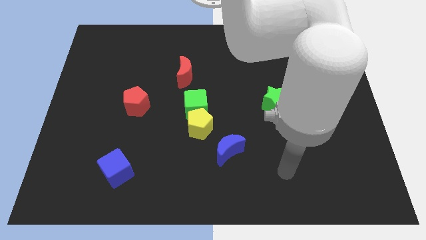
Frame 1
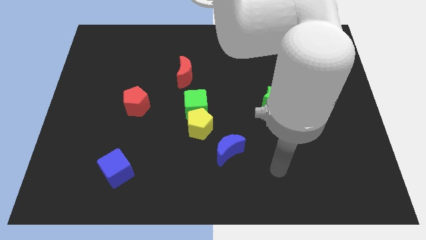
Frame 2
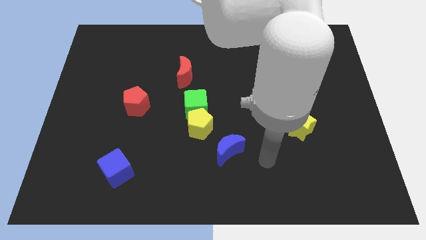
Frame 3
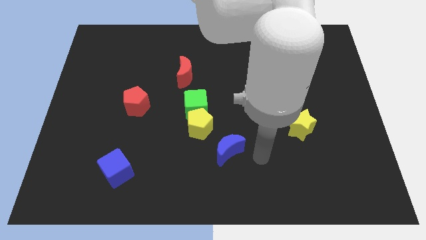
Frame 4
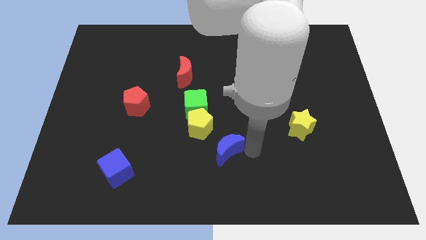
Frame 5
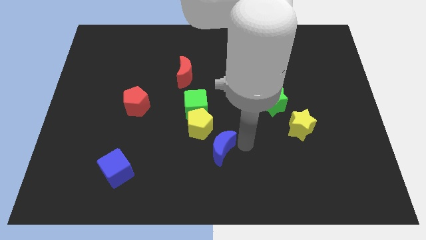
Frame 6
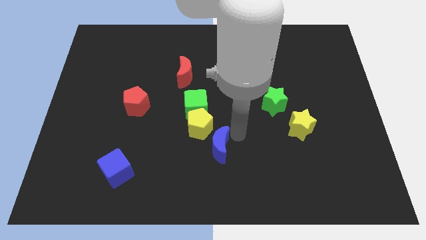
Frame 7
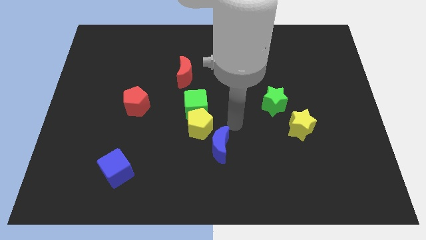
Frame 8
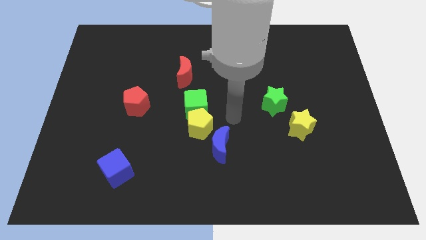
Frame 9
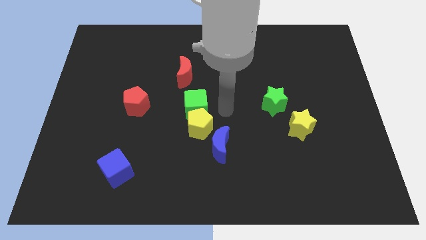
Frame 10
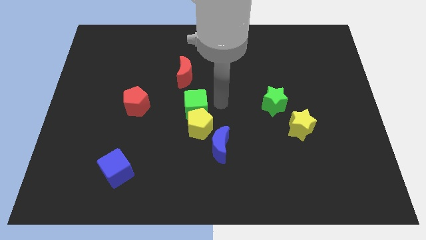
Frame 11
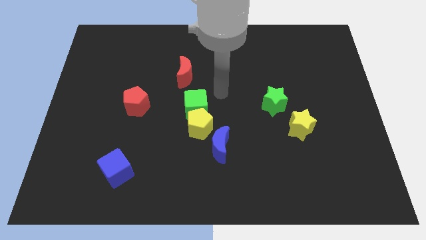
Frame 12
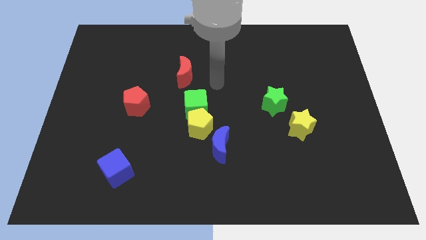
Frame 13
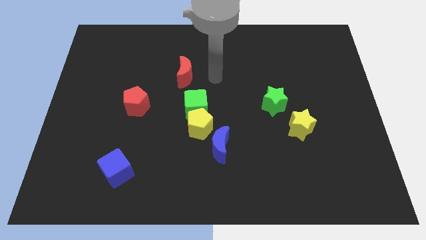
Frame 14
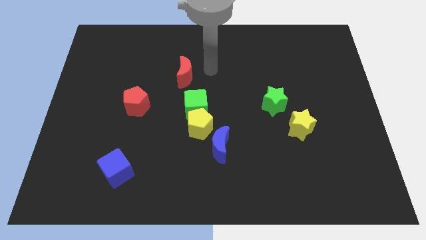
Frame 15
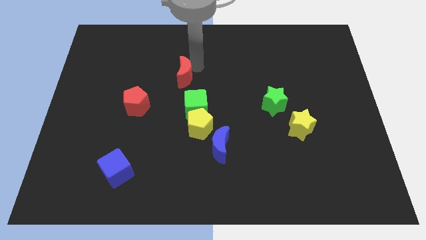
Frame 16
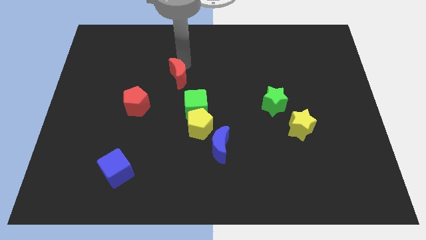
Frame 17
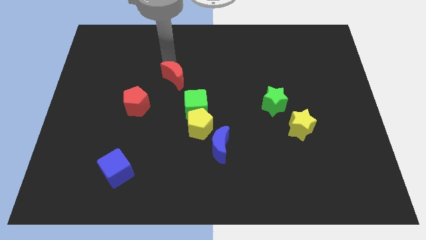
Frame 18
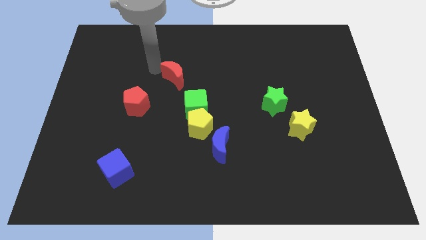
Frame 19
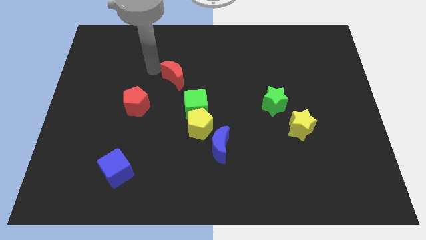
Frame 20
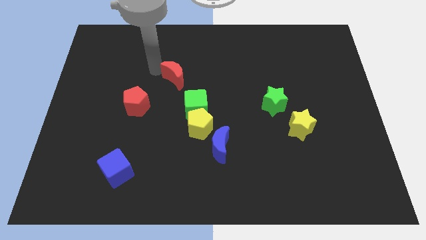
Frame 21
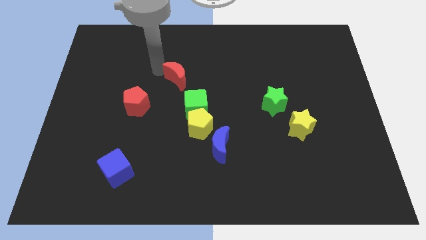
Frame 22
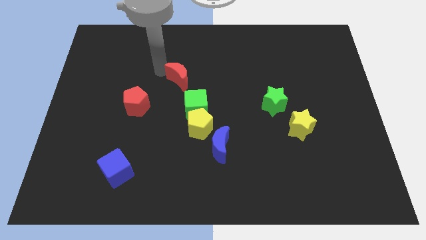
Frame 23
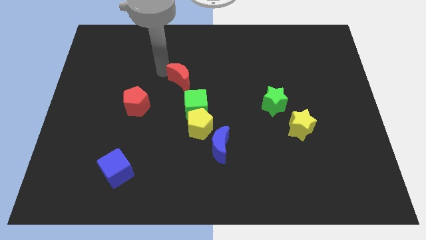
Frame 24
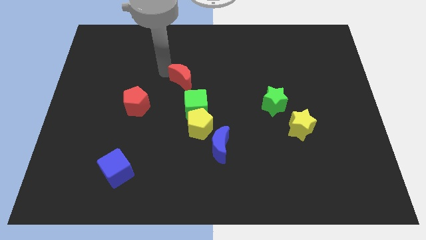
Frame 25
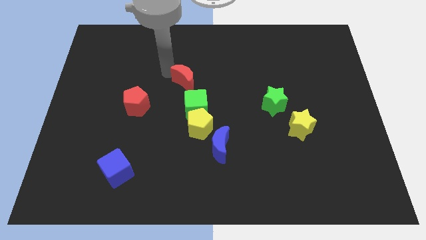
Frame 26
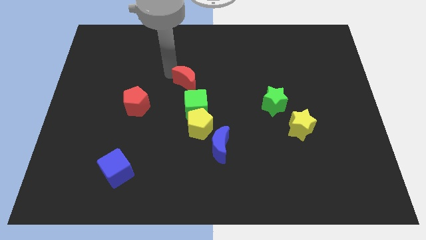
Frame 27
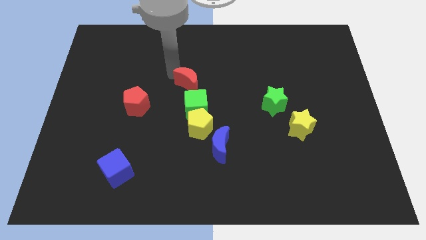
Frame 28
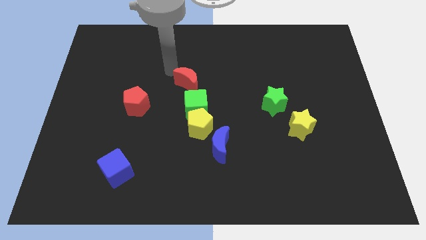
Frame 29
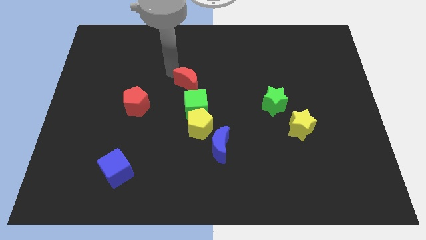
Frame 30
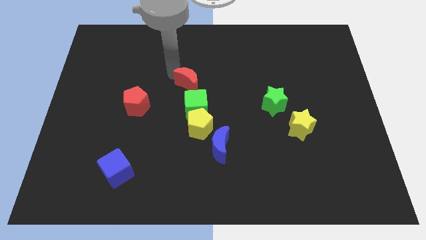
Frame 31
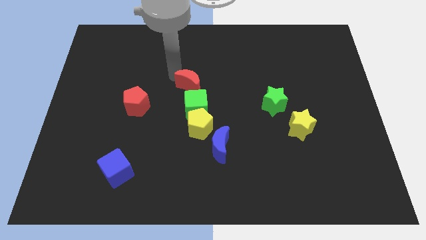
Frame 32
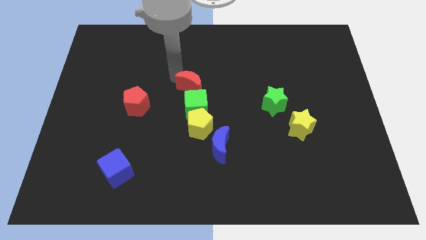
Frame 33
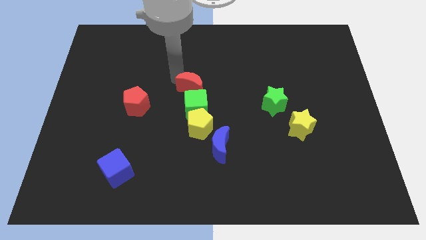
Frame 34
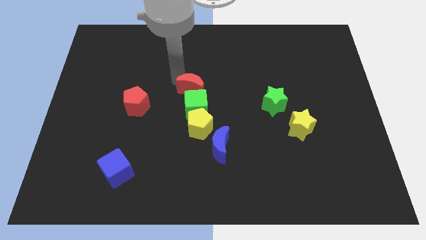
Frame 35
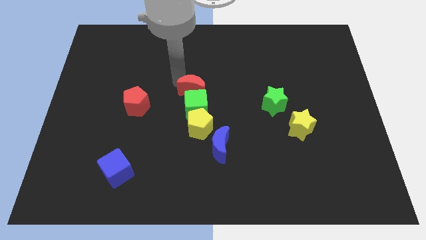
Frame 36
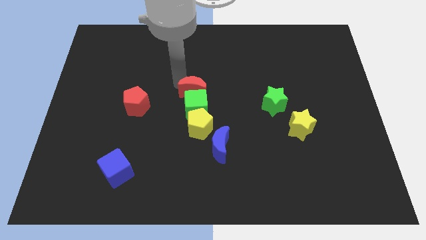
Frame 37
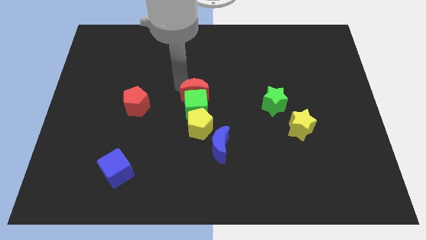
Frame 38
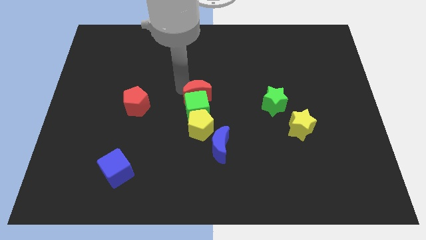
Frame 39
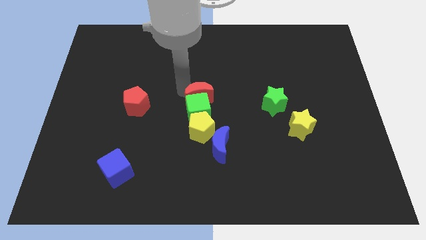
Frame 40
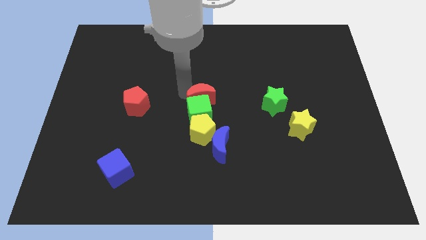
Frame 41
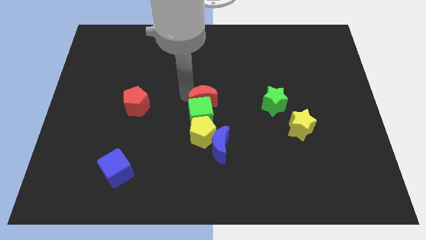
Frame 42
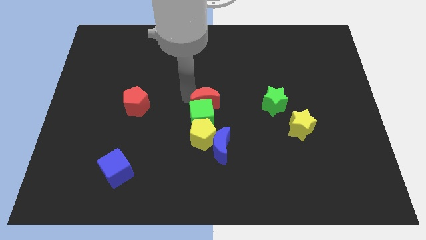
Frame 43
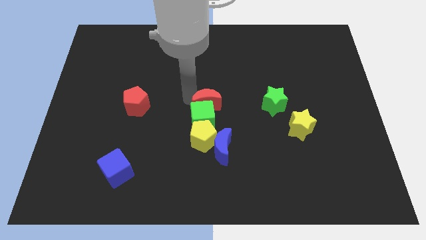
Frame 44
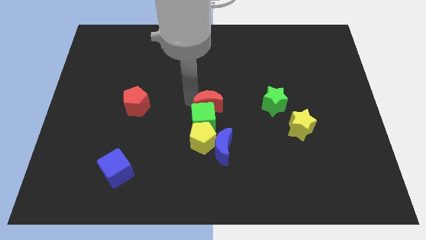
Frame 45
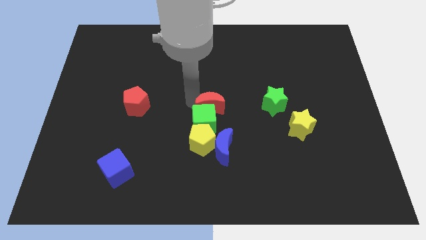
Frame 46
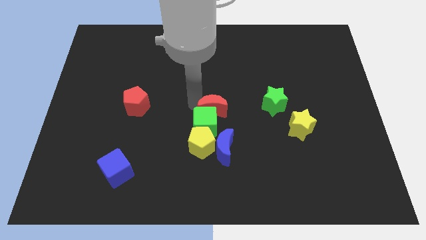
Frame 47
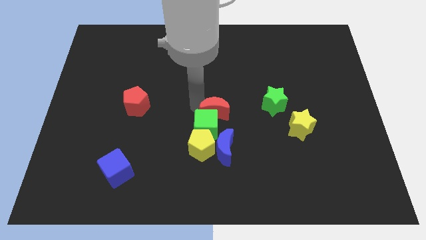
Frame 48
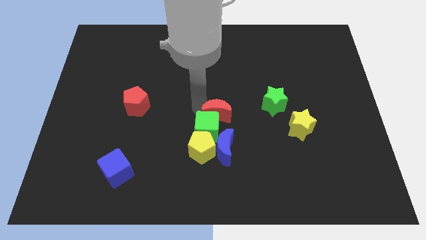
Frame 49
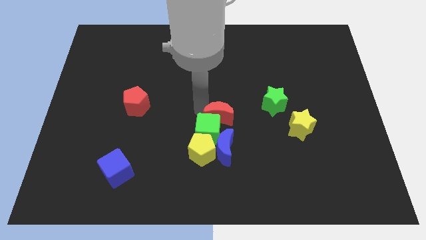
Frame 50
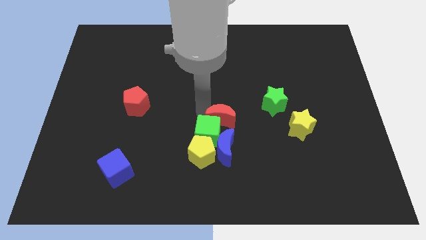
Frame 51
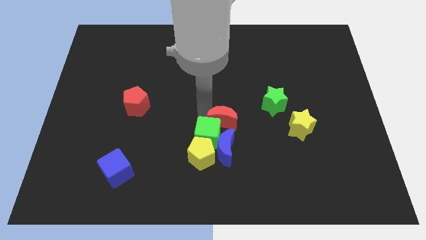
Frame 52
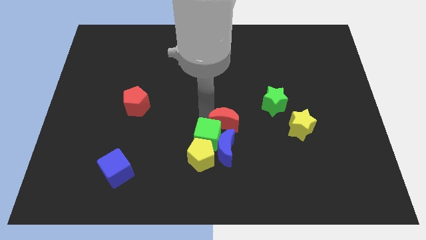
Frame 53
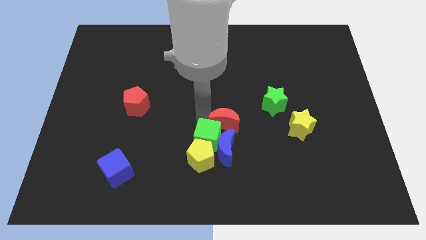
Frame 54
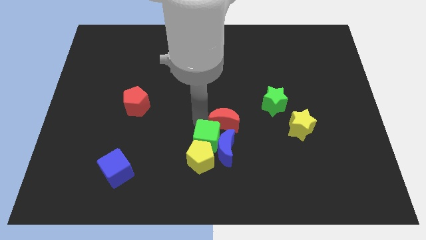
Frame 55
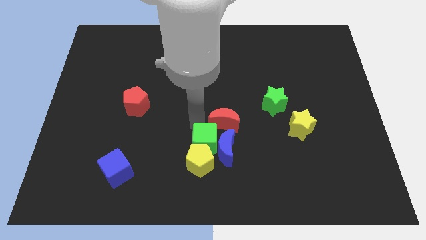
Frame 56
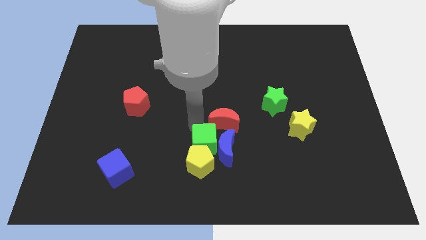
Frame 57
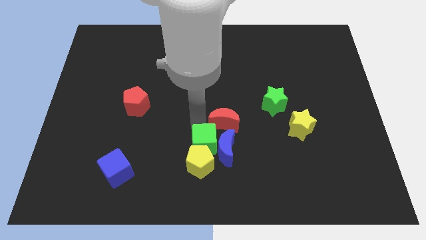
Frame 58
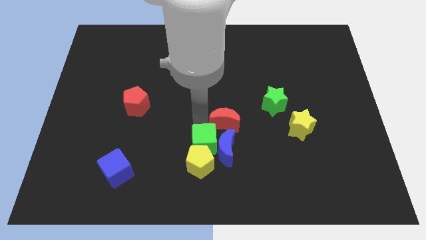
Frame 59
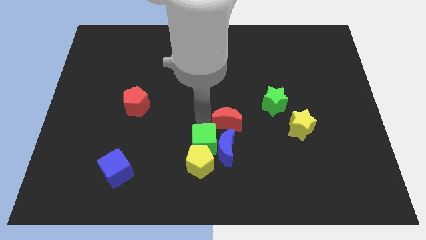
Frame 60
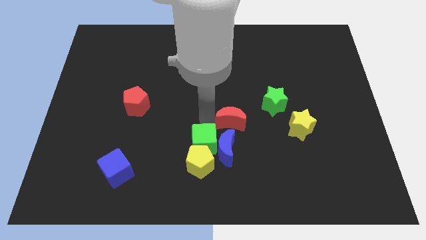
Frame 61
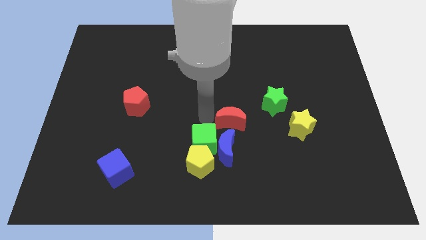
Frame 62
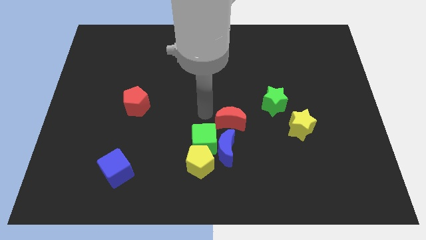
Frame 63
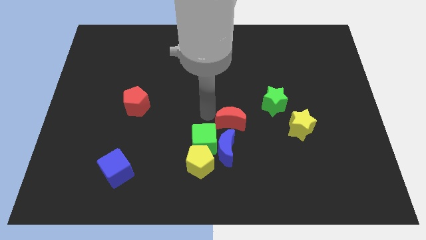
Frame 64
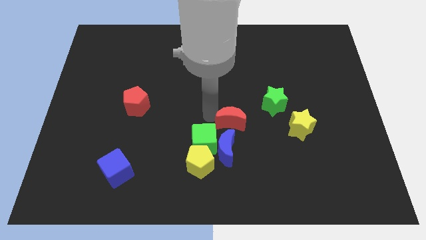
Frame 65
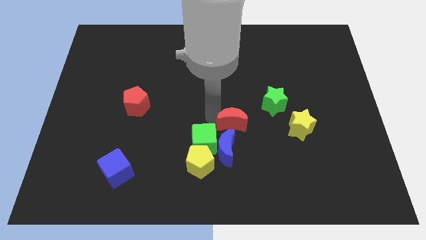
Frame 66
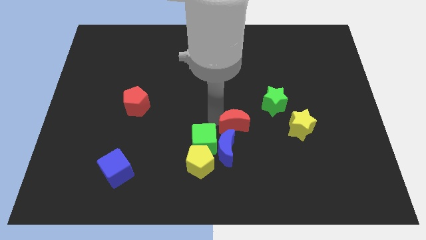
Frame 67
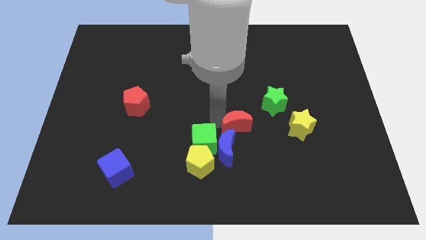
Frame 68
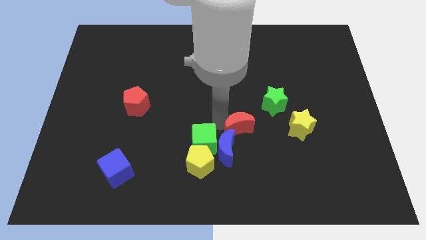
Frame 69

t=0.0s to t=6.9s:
push the red moon downwards and right

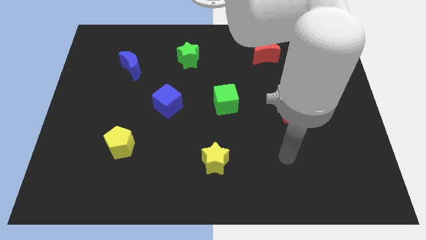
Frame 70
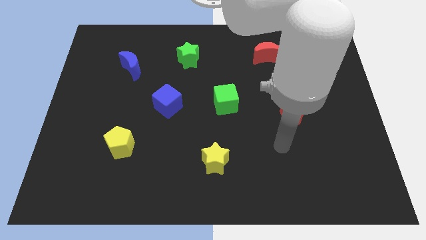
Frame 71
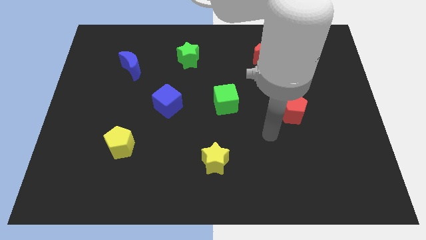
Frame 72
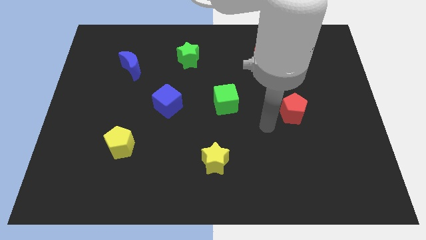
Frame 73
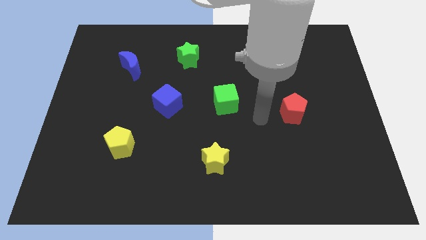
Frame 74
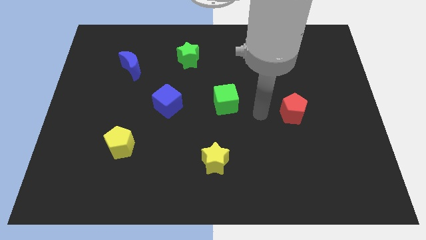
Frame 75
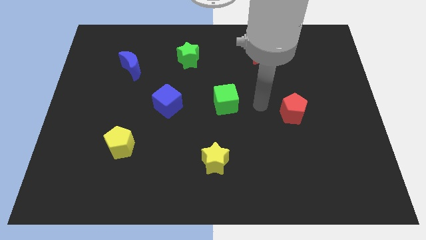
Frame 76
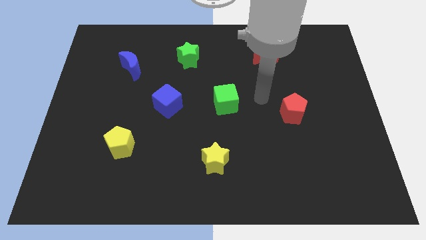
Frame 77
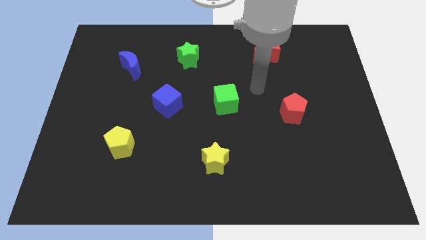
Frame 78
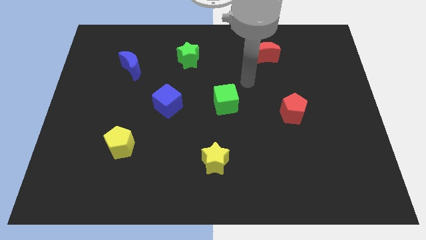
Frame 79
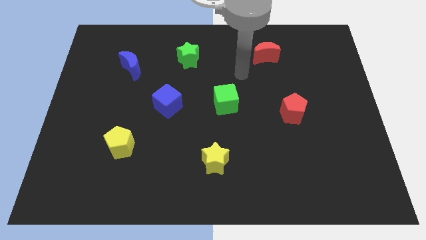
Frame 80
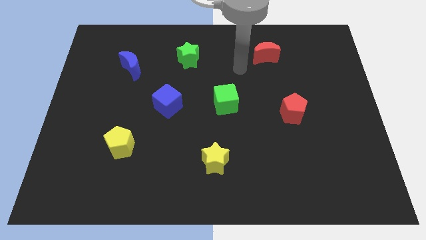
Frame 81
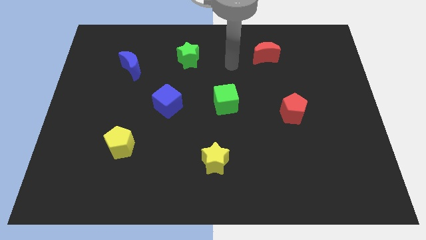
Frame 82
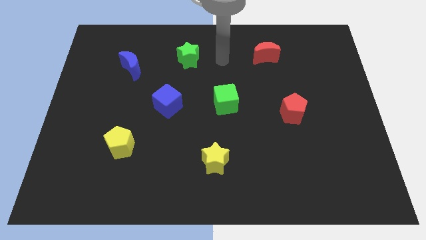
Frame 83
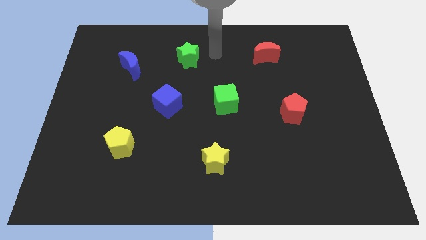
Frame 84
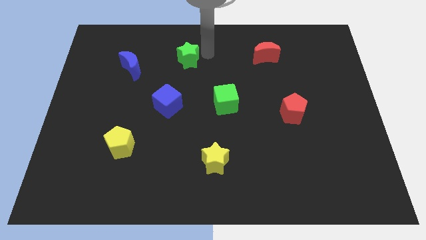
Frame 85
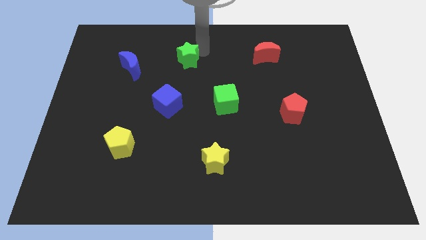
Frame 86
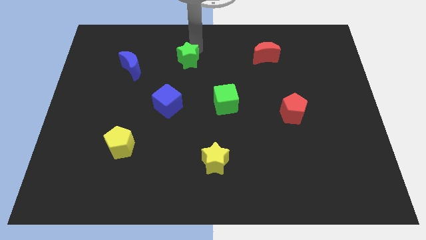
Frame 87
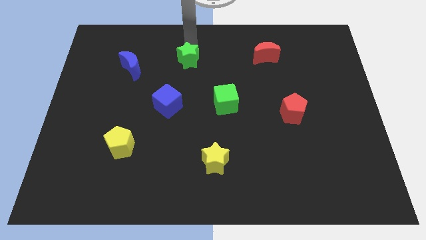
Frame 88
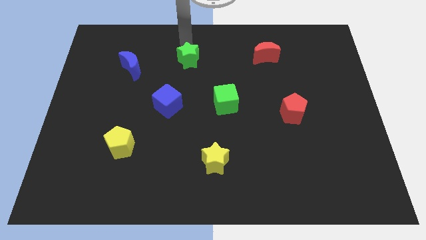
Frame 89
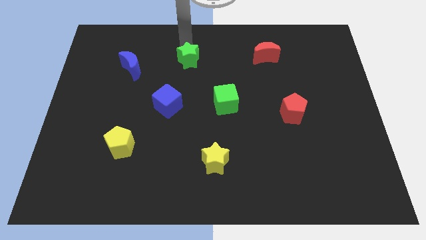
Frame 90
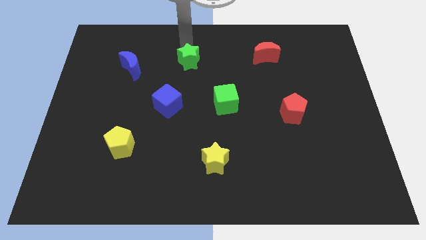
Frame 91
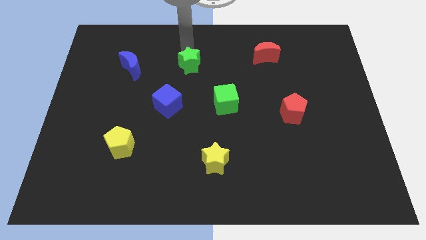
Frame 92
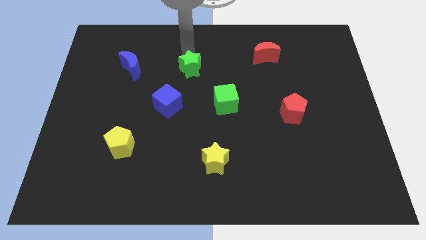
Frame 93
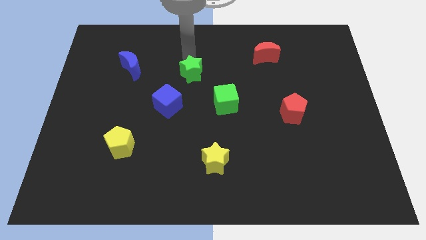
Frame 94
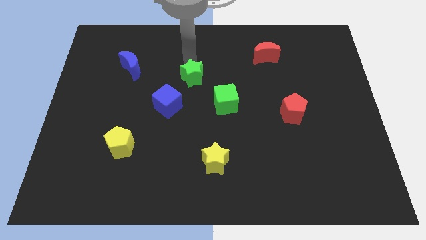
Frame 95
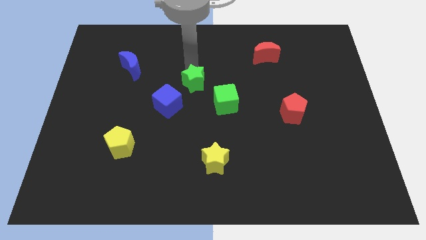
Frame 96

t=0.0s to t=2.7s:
move the green star somewhat downwards
